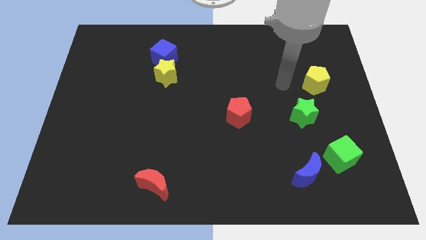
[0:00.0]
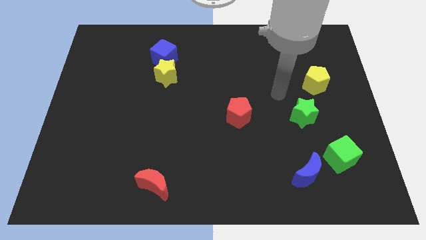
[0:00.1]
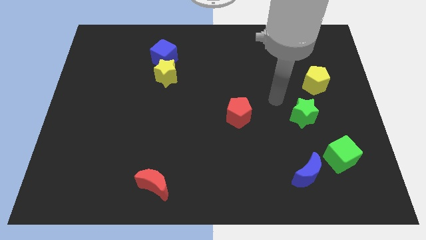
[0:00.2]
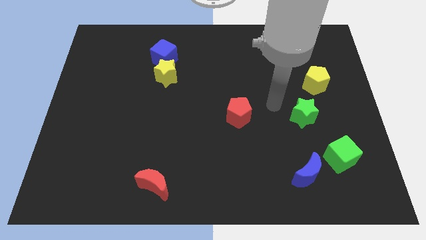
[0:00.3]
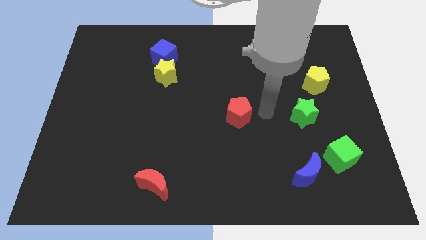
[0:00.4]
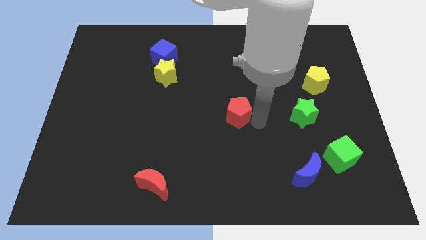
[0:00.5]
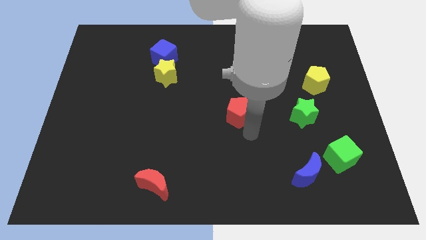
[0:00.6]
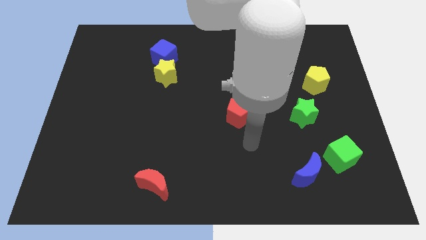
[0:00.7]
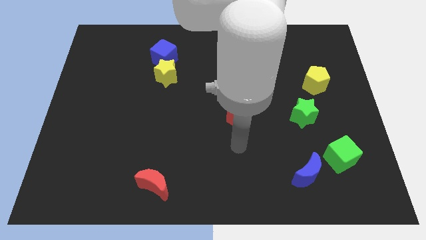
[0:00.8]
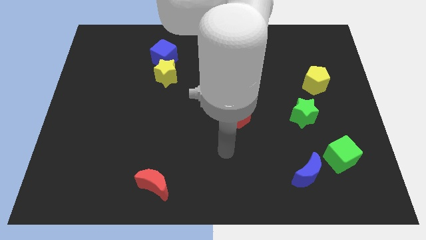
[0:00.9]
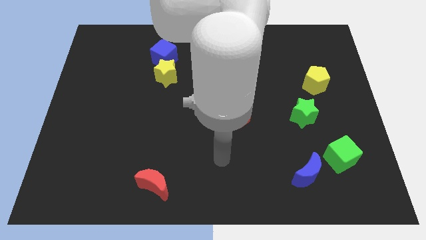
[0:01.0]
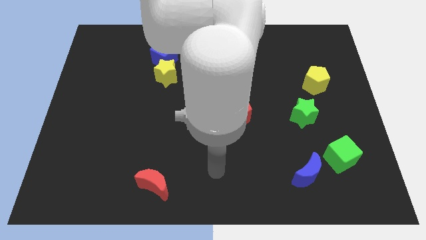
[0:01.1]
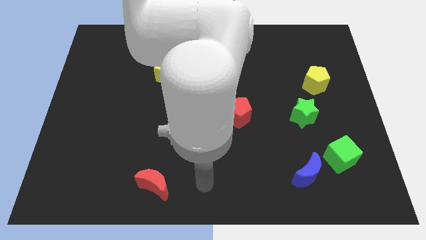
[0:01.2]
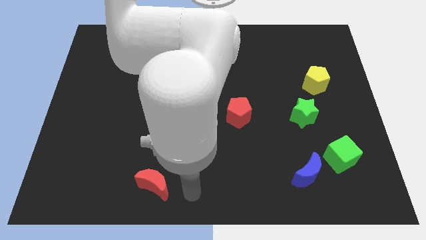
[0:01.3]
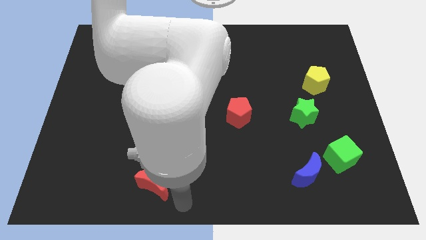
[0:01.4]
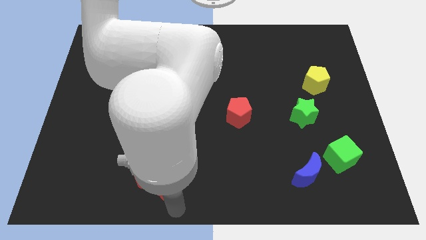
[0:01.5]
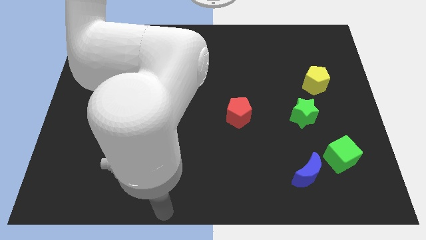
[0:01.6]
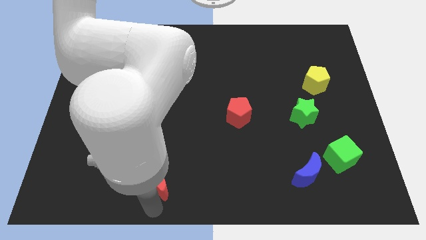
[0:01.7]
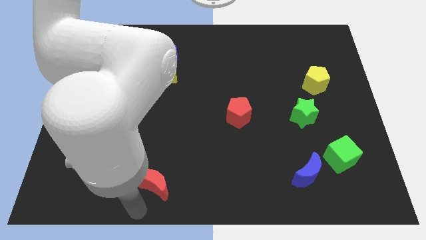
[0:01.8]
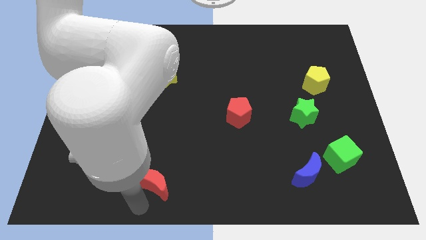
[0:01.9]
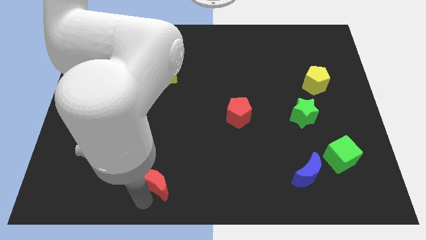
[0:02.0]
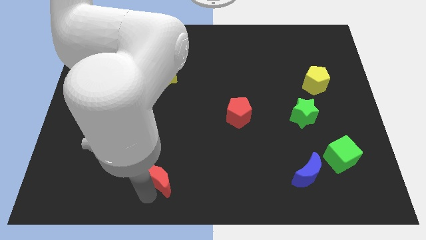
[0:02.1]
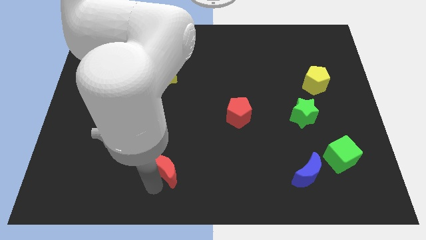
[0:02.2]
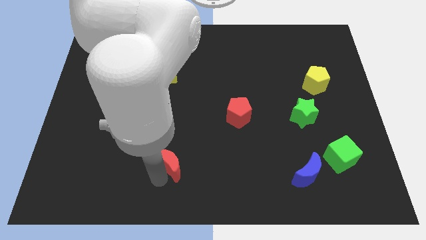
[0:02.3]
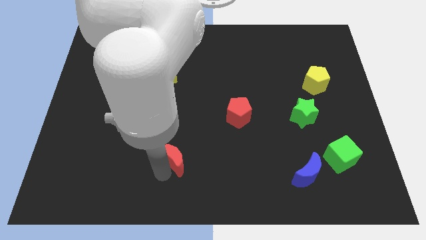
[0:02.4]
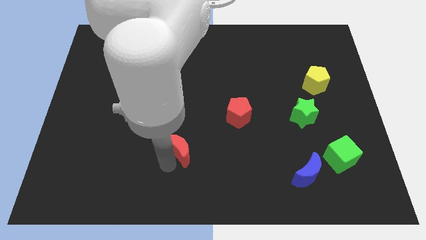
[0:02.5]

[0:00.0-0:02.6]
move the red moon slightly diagonally upwards and right

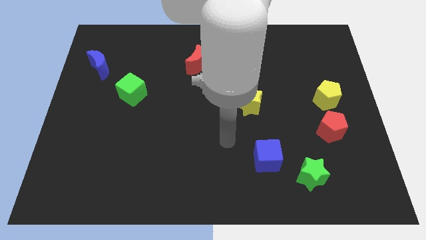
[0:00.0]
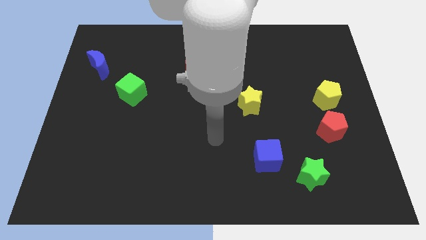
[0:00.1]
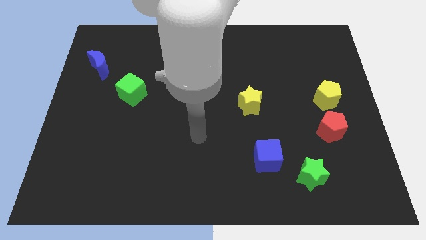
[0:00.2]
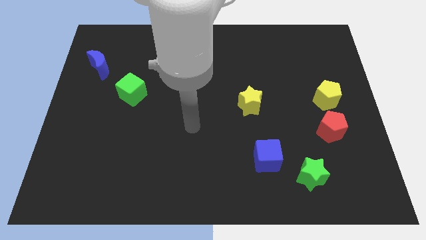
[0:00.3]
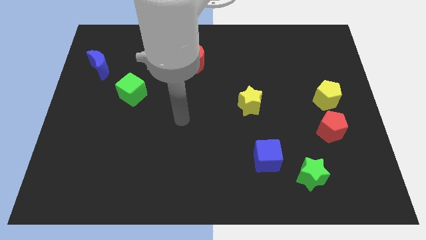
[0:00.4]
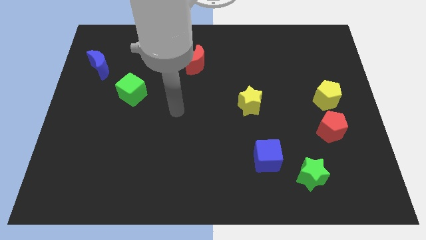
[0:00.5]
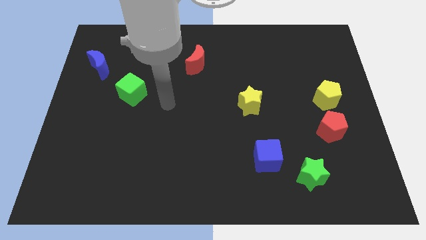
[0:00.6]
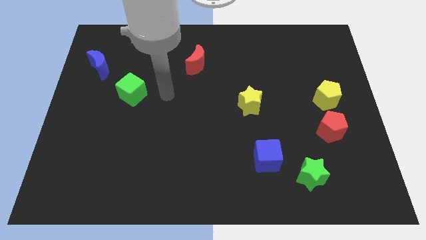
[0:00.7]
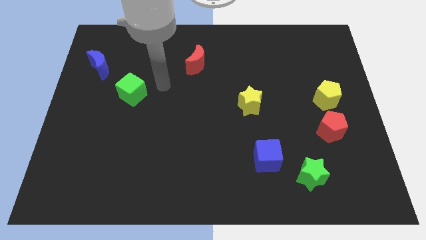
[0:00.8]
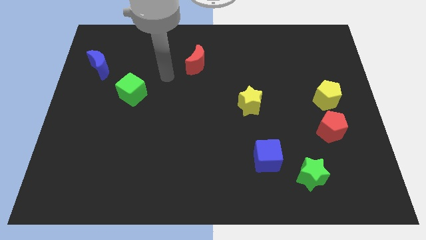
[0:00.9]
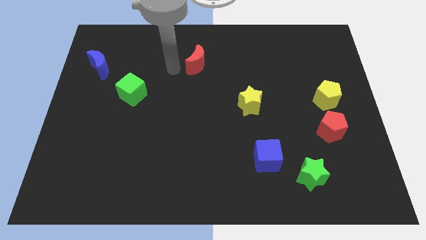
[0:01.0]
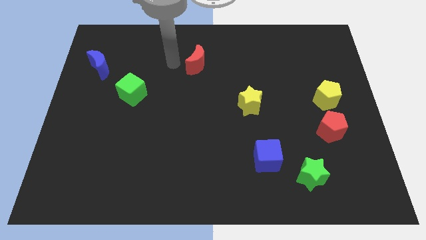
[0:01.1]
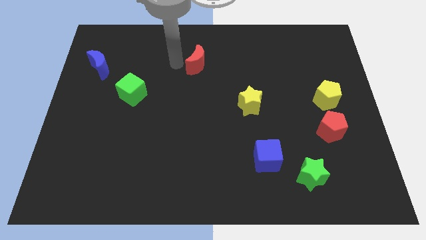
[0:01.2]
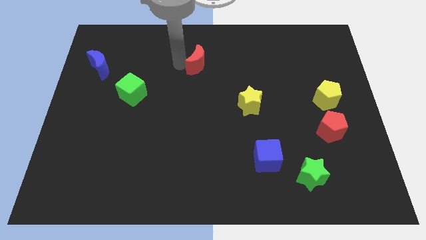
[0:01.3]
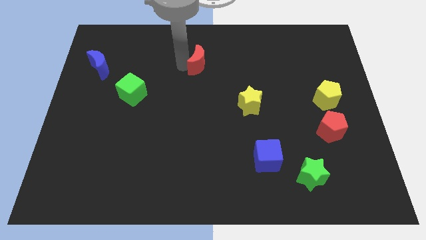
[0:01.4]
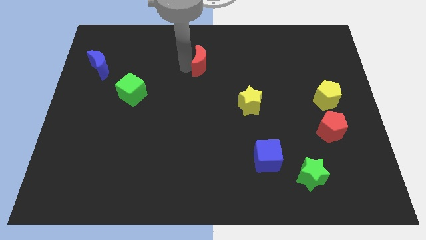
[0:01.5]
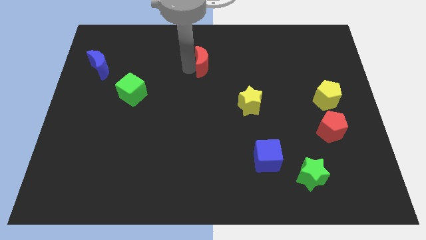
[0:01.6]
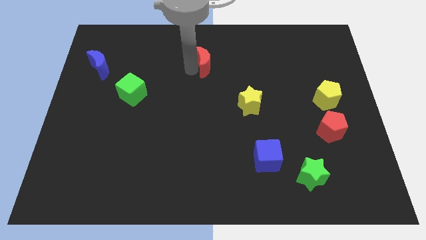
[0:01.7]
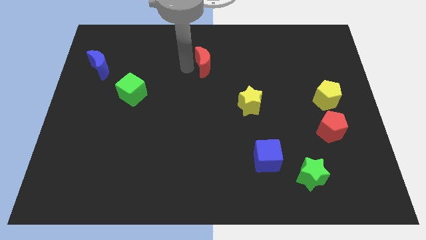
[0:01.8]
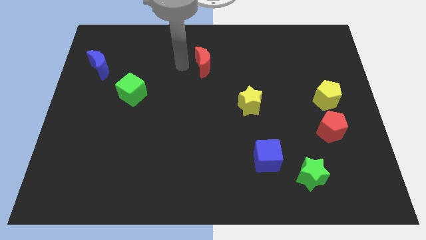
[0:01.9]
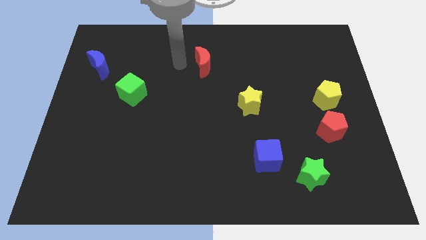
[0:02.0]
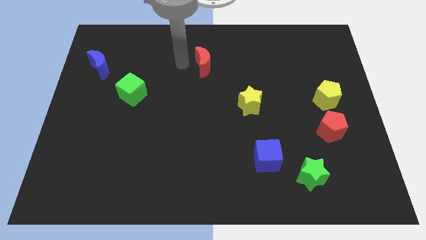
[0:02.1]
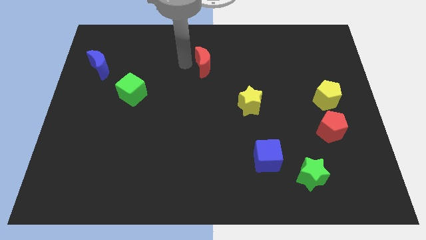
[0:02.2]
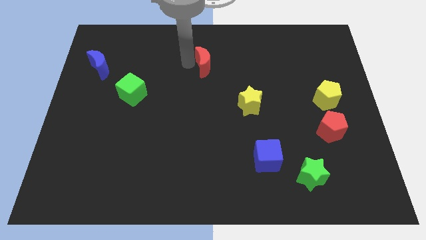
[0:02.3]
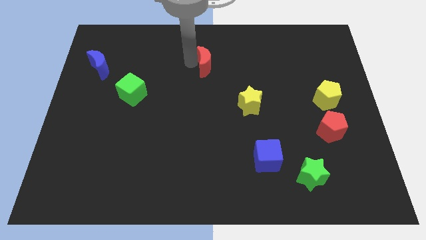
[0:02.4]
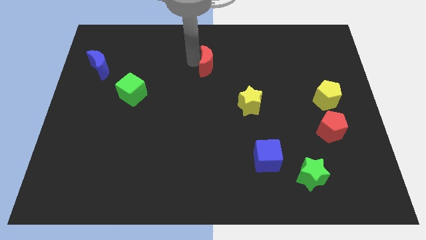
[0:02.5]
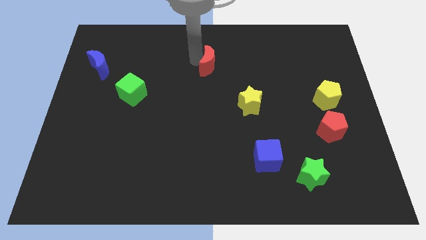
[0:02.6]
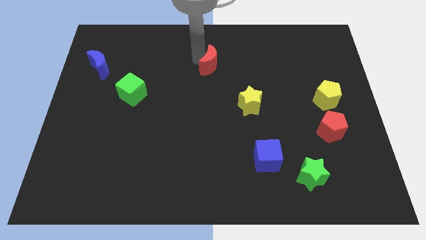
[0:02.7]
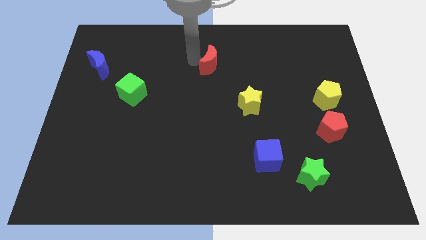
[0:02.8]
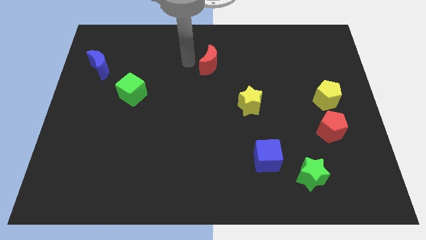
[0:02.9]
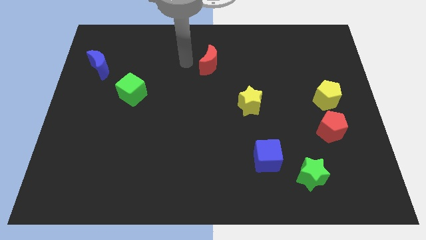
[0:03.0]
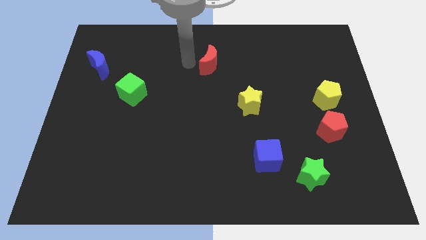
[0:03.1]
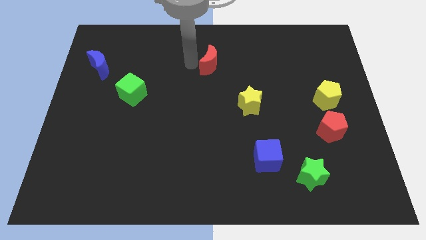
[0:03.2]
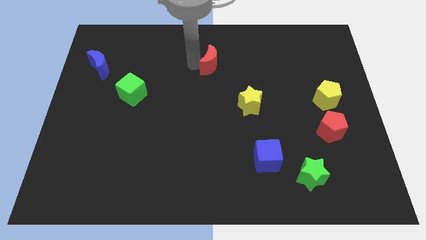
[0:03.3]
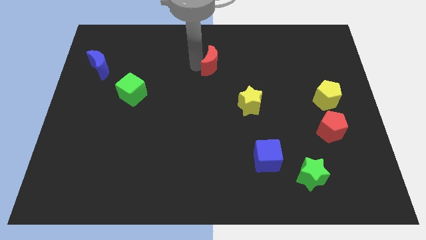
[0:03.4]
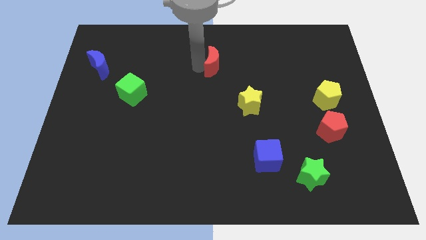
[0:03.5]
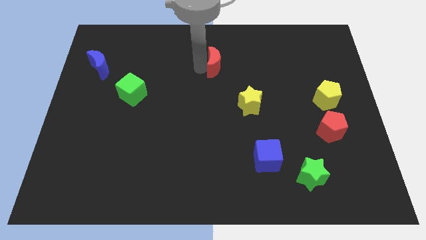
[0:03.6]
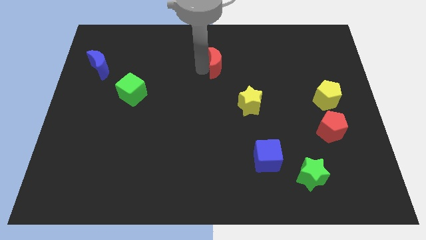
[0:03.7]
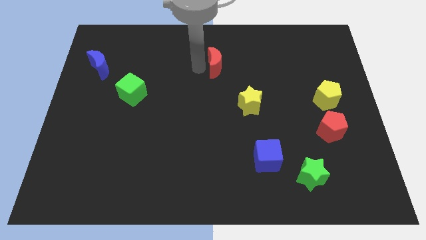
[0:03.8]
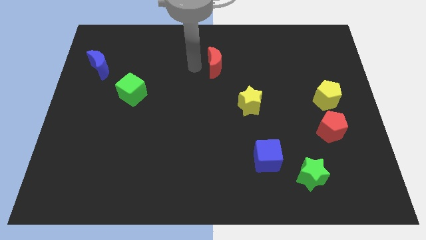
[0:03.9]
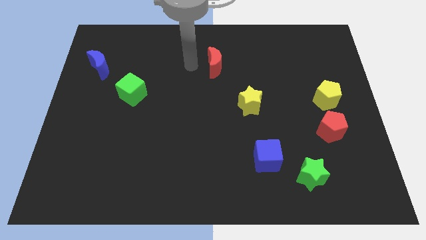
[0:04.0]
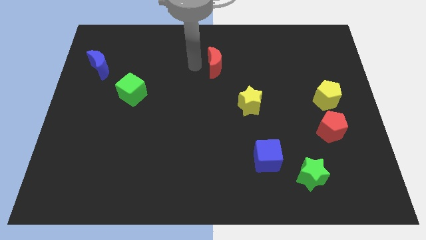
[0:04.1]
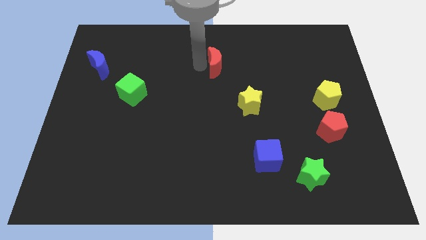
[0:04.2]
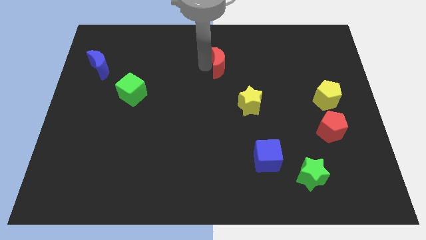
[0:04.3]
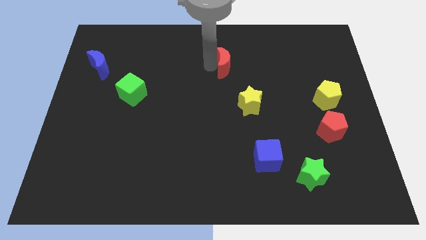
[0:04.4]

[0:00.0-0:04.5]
move the red moon somewhat to the right

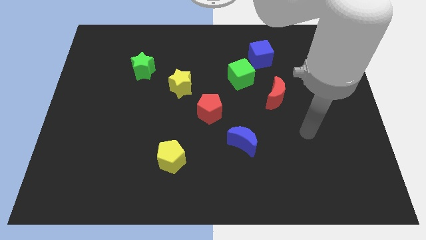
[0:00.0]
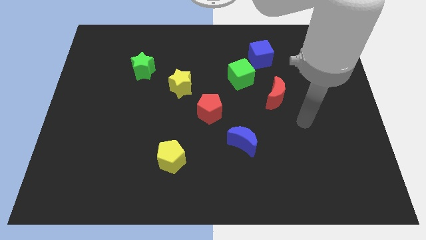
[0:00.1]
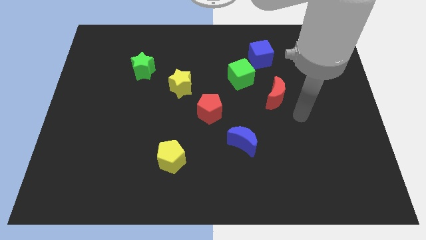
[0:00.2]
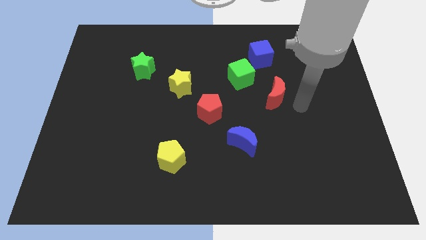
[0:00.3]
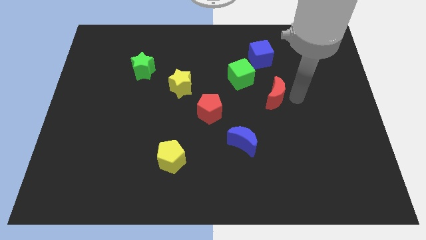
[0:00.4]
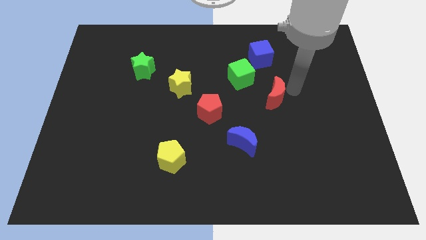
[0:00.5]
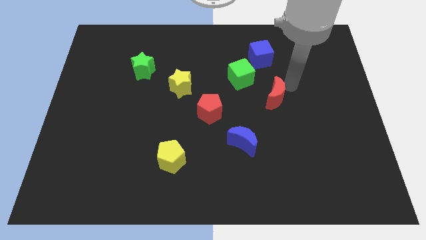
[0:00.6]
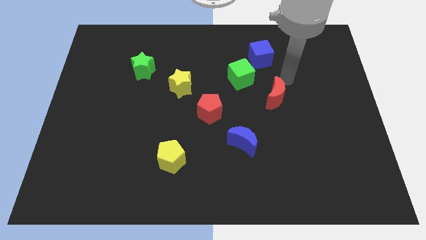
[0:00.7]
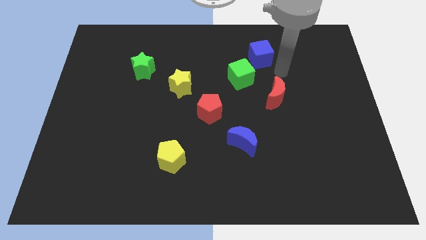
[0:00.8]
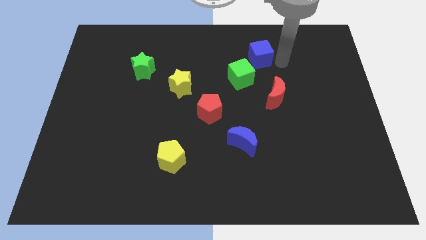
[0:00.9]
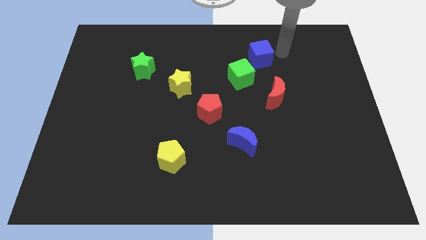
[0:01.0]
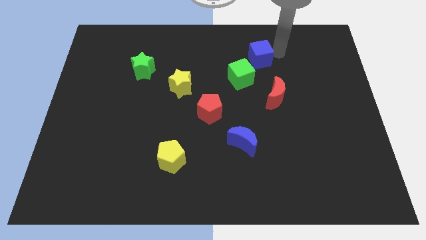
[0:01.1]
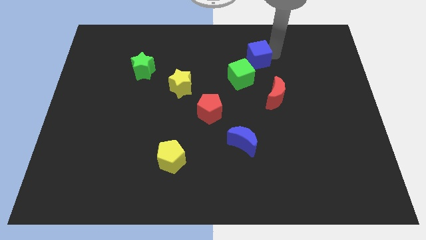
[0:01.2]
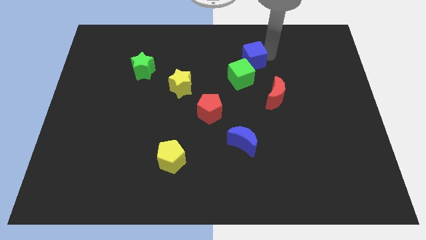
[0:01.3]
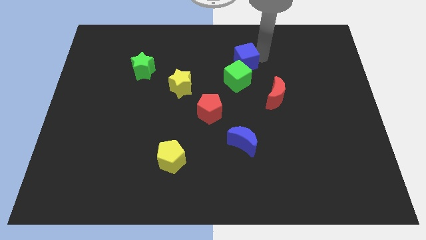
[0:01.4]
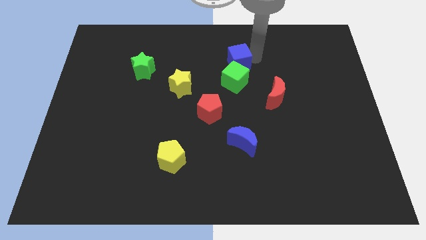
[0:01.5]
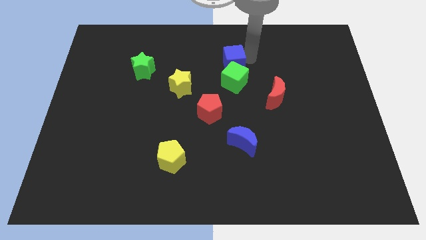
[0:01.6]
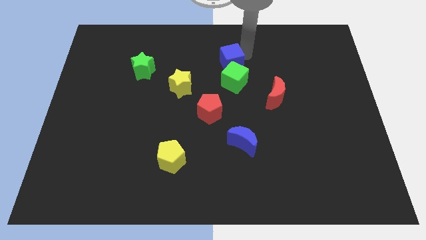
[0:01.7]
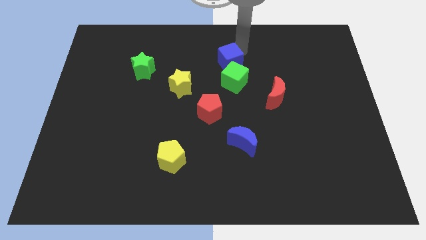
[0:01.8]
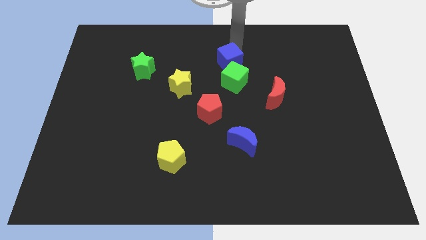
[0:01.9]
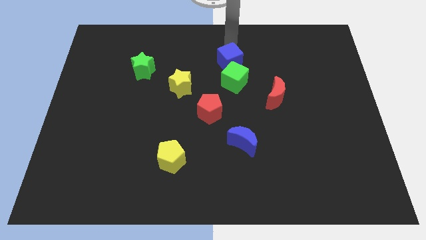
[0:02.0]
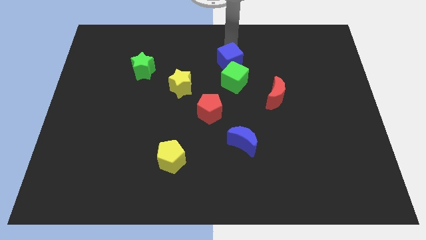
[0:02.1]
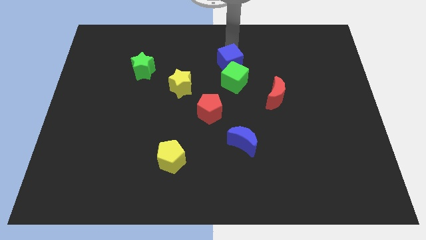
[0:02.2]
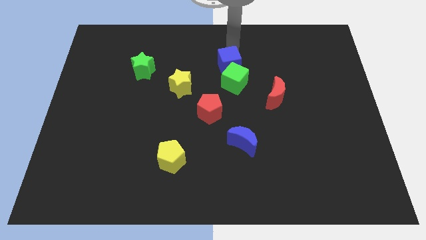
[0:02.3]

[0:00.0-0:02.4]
slightly slide the blue cube down and to the left
